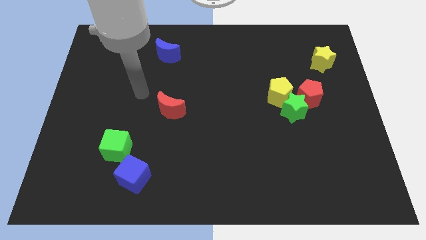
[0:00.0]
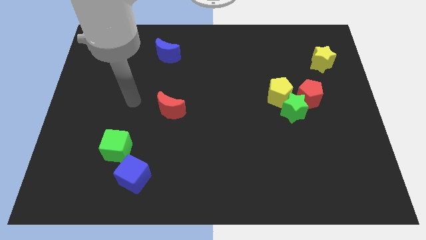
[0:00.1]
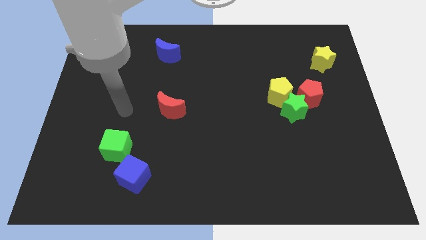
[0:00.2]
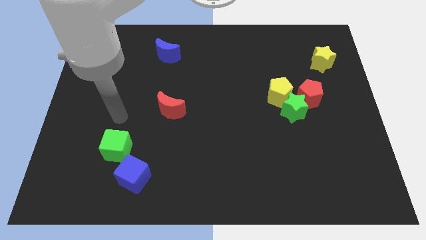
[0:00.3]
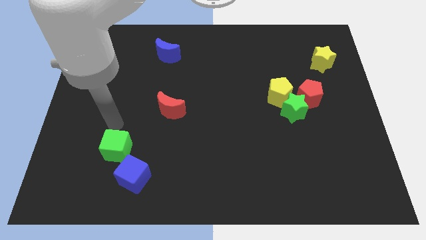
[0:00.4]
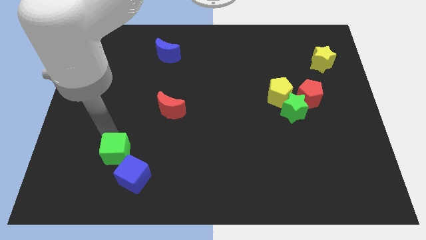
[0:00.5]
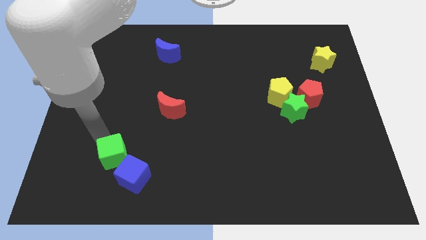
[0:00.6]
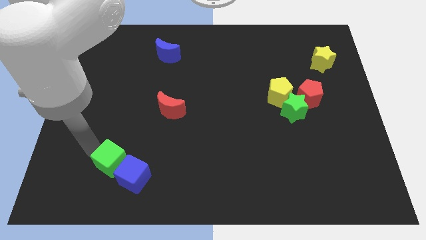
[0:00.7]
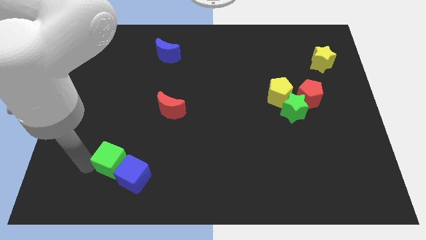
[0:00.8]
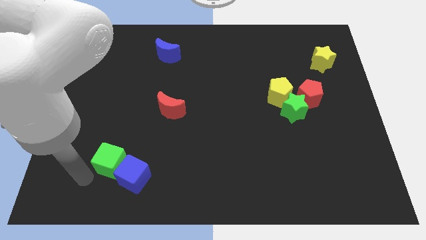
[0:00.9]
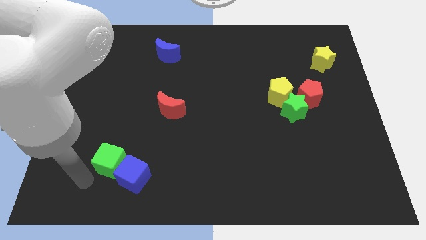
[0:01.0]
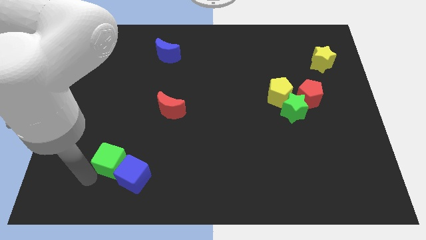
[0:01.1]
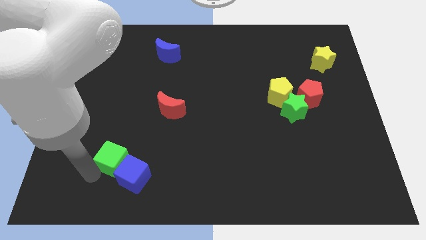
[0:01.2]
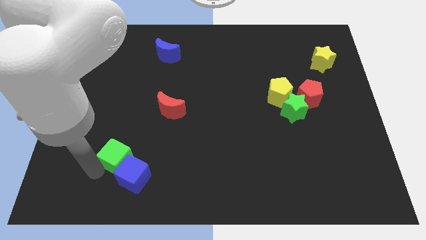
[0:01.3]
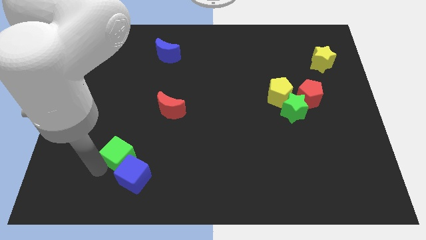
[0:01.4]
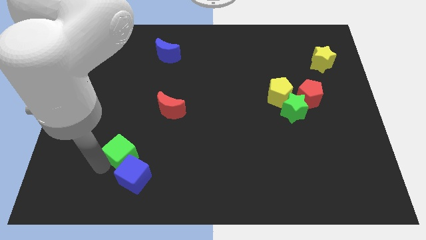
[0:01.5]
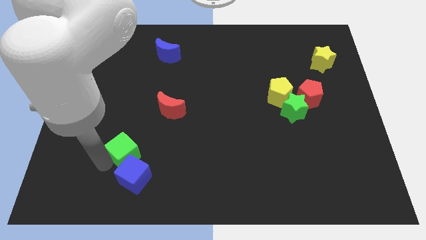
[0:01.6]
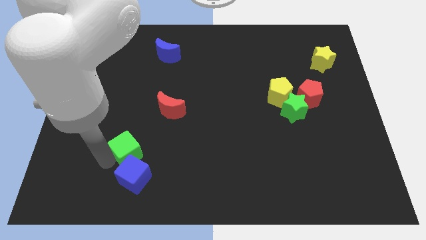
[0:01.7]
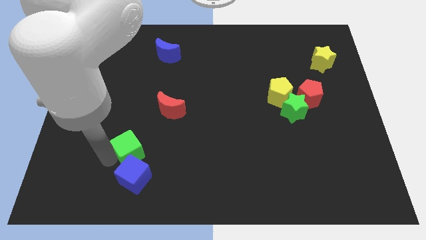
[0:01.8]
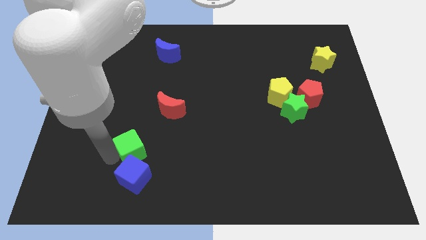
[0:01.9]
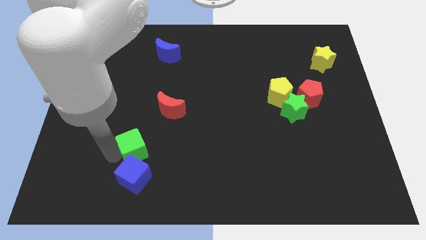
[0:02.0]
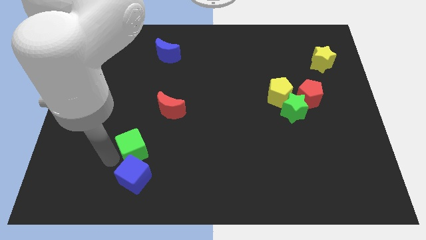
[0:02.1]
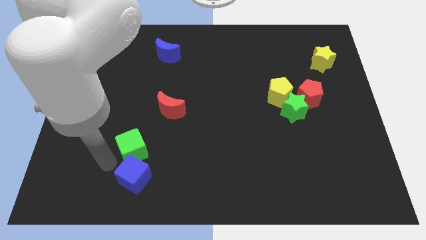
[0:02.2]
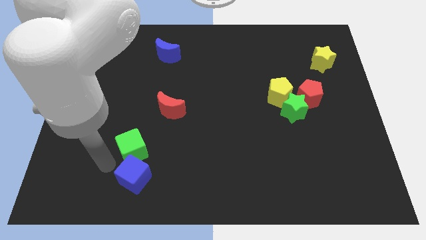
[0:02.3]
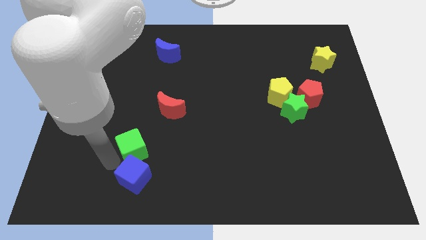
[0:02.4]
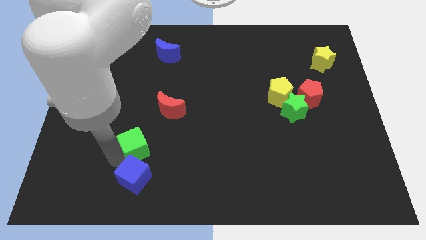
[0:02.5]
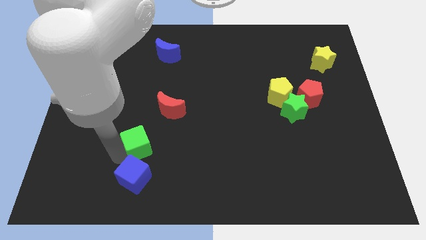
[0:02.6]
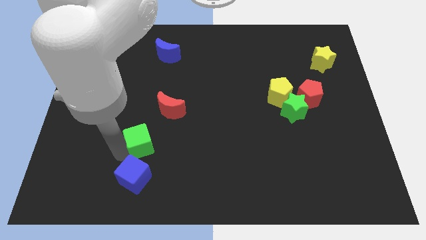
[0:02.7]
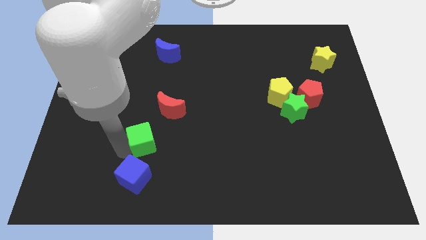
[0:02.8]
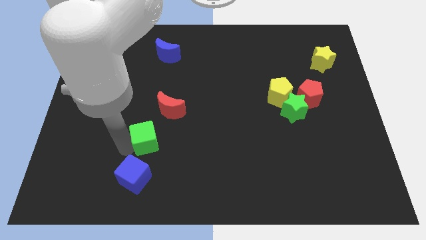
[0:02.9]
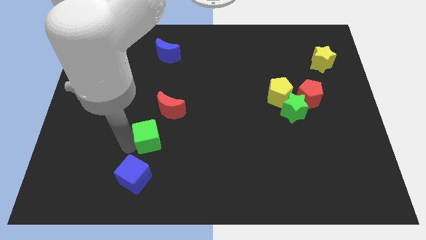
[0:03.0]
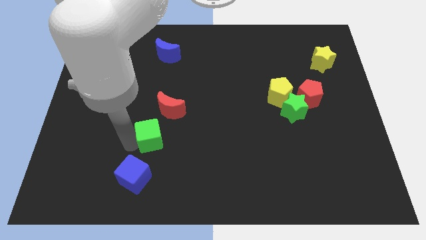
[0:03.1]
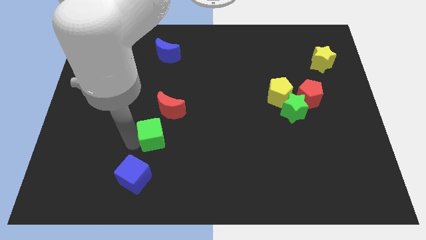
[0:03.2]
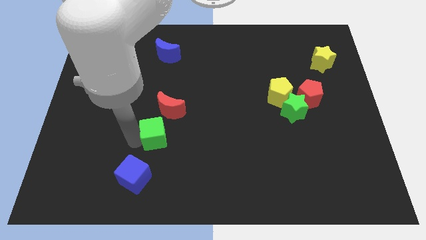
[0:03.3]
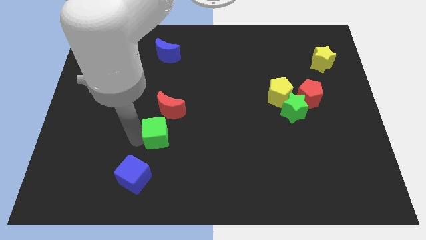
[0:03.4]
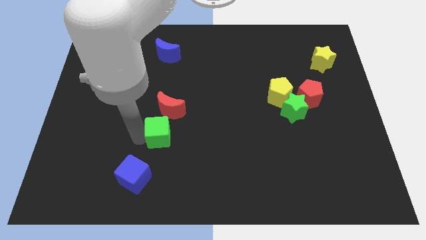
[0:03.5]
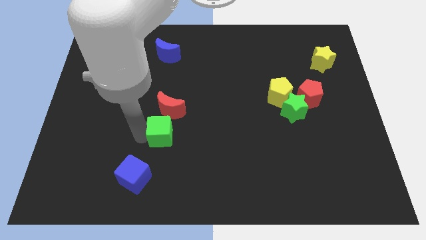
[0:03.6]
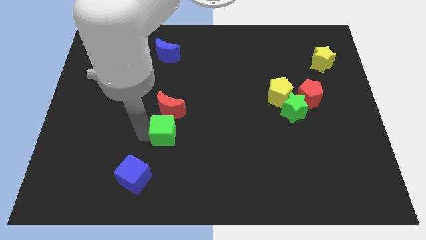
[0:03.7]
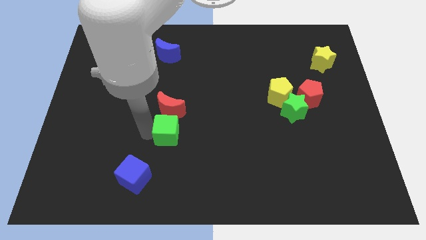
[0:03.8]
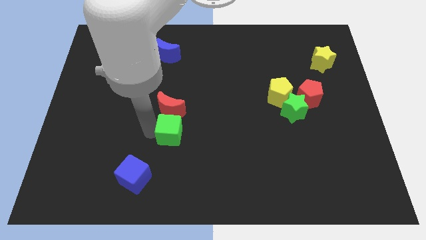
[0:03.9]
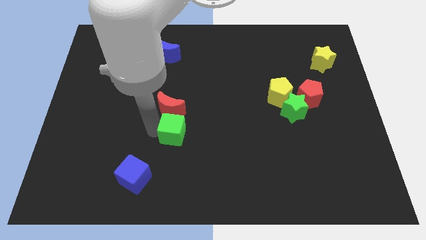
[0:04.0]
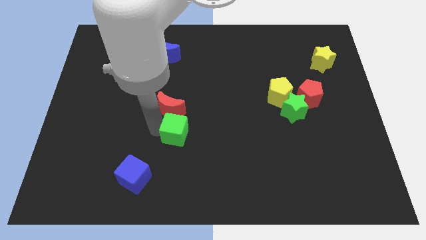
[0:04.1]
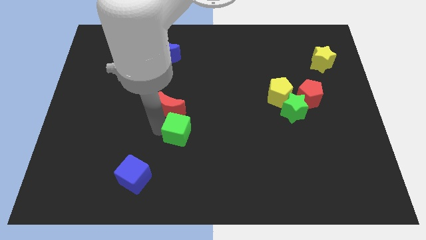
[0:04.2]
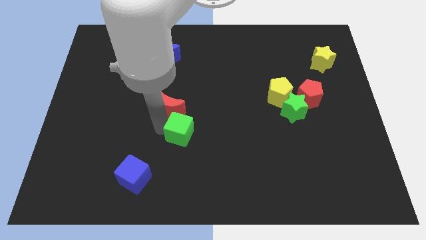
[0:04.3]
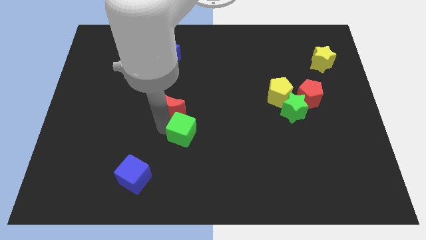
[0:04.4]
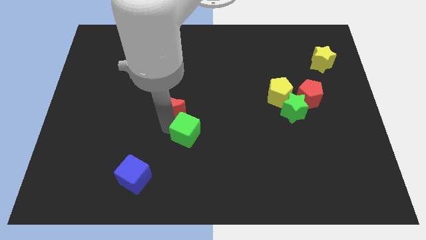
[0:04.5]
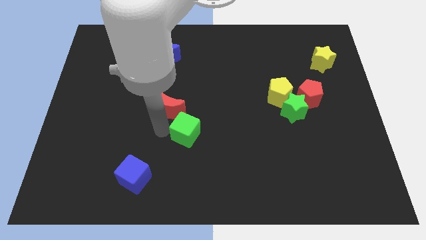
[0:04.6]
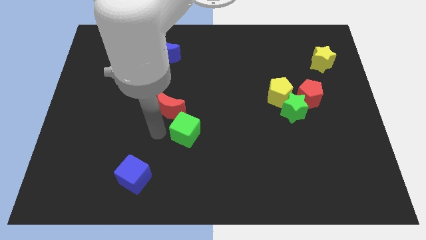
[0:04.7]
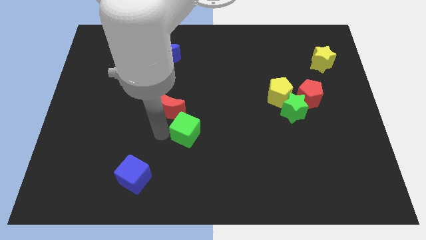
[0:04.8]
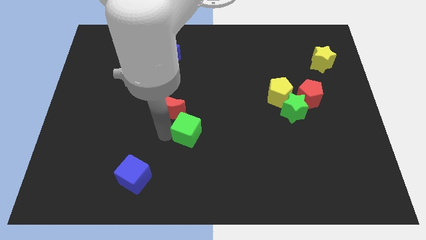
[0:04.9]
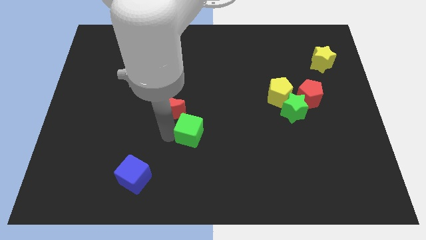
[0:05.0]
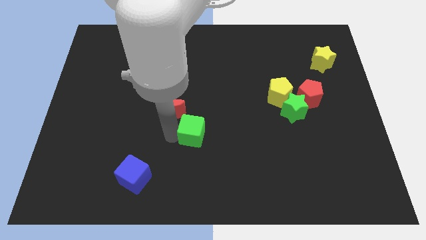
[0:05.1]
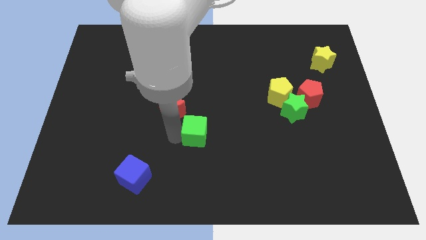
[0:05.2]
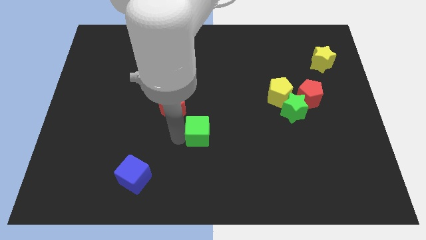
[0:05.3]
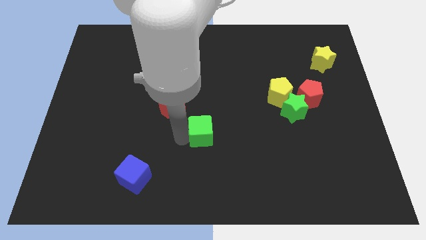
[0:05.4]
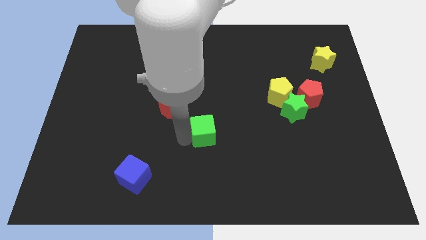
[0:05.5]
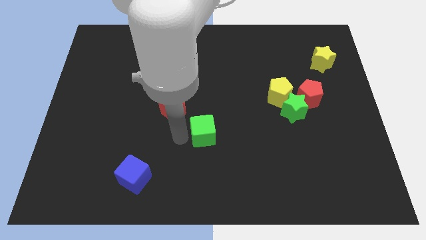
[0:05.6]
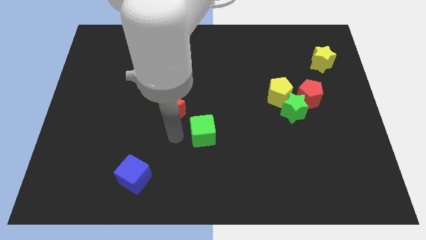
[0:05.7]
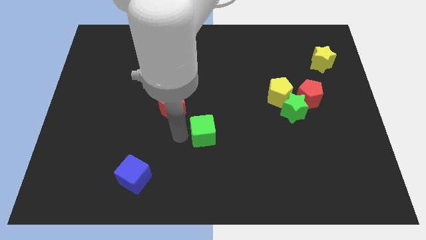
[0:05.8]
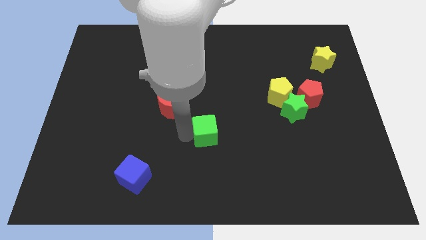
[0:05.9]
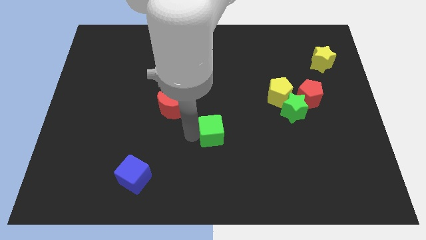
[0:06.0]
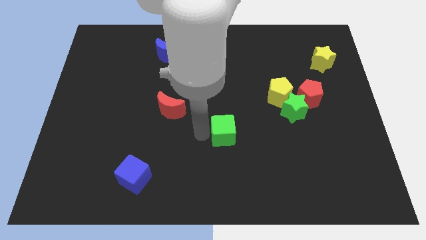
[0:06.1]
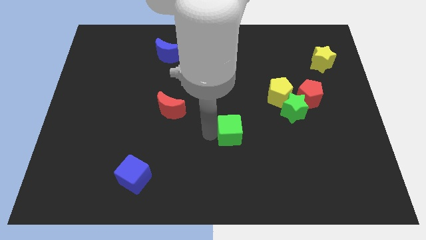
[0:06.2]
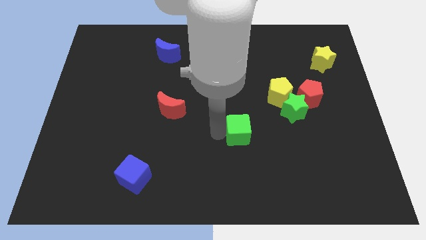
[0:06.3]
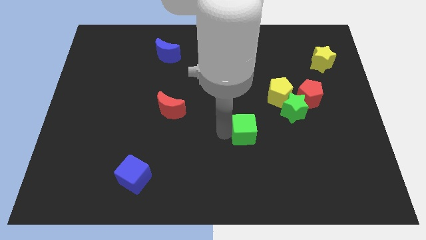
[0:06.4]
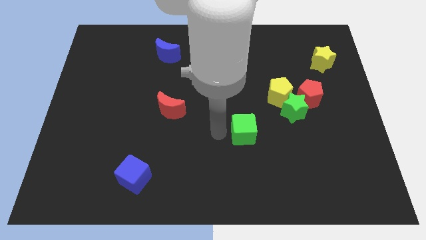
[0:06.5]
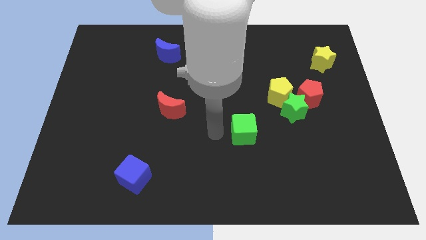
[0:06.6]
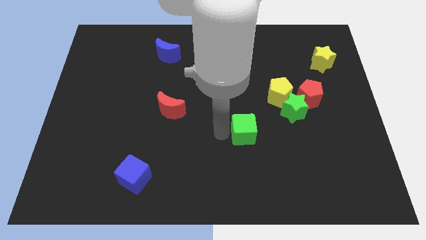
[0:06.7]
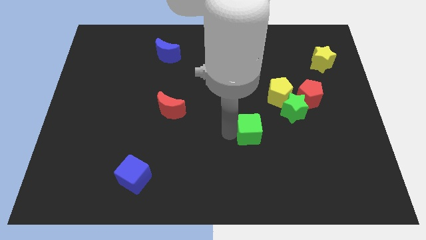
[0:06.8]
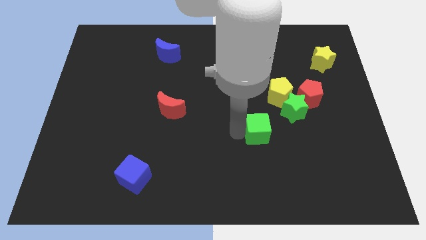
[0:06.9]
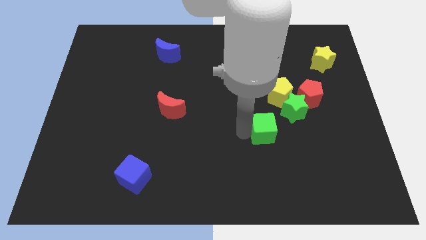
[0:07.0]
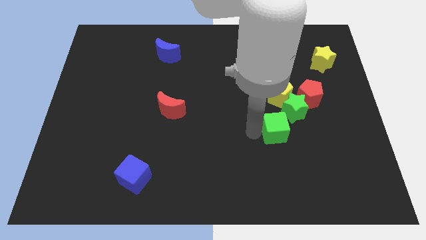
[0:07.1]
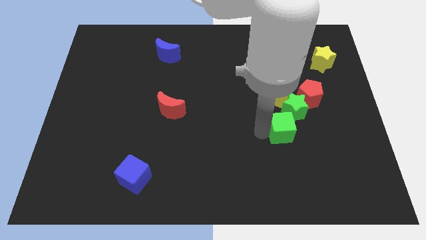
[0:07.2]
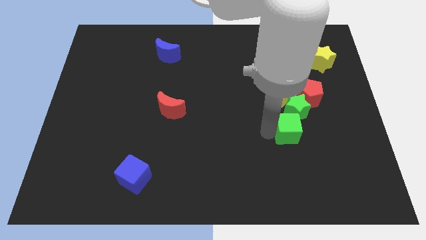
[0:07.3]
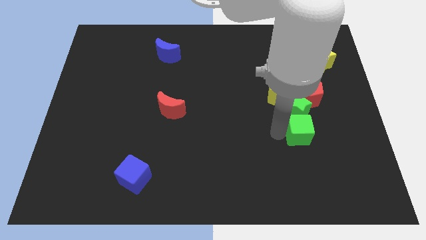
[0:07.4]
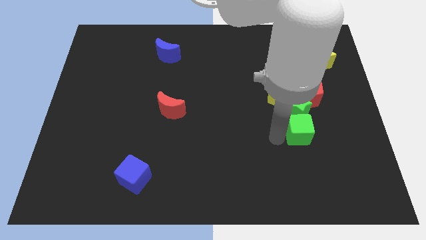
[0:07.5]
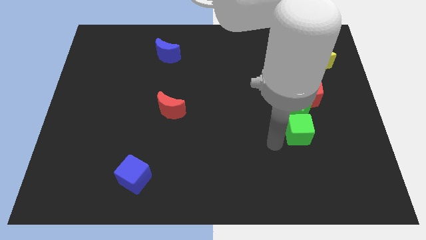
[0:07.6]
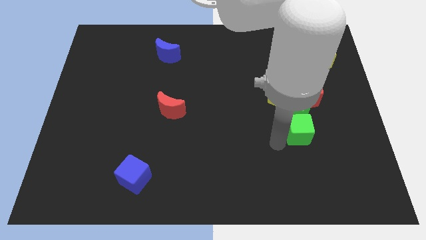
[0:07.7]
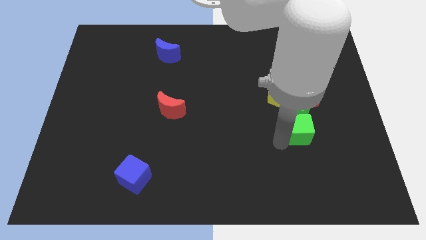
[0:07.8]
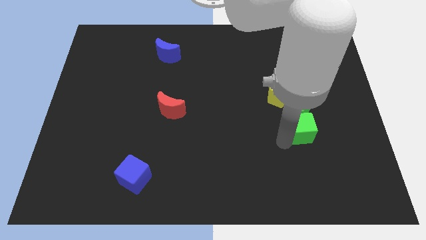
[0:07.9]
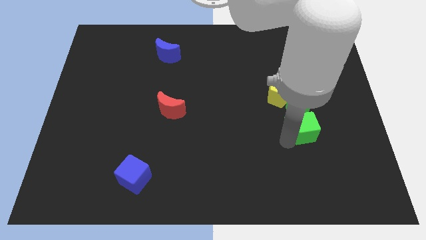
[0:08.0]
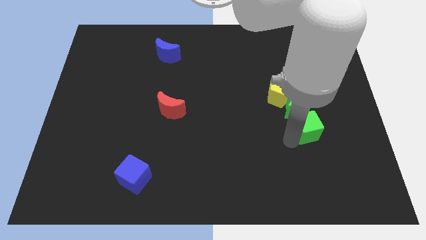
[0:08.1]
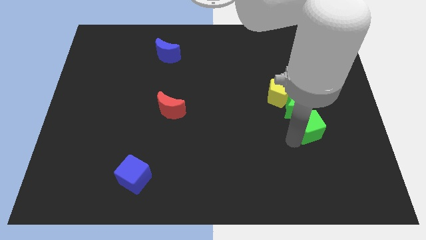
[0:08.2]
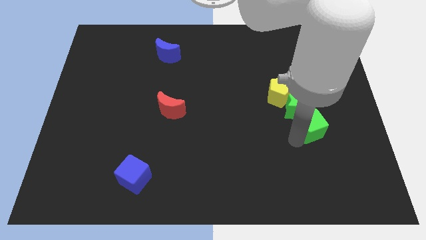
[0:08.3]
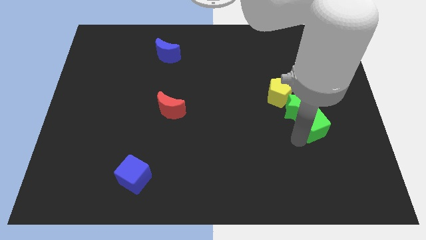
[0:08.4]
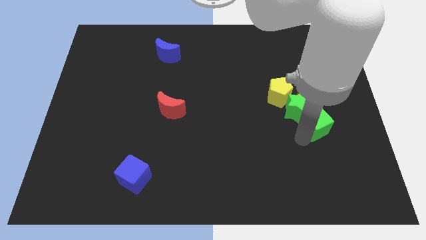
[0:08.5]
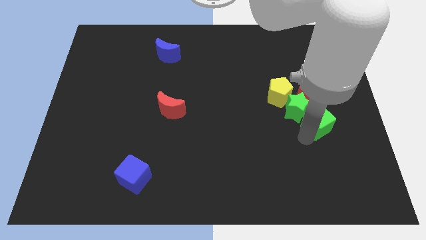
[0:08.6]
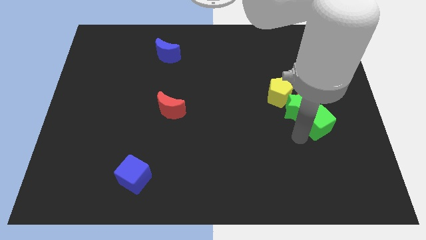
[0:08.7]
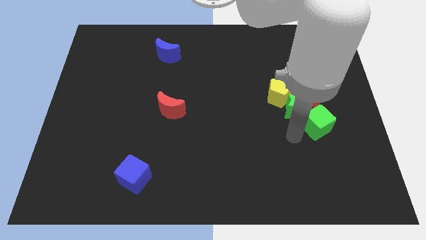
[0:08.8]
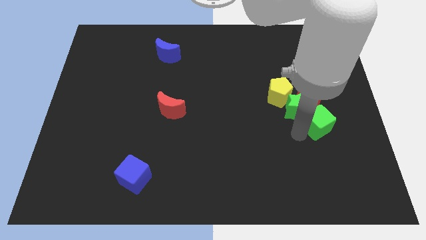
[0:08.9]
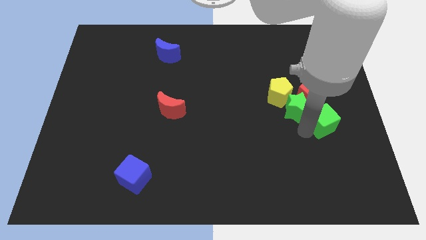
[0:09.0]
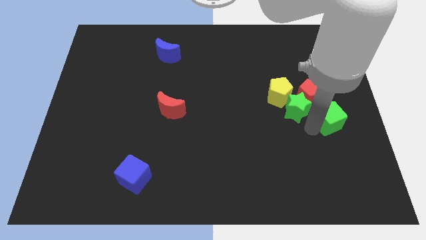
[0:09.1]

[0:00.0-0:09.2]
put the green cube to the right side of the board
